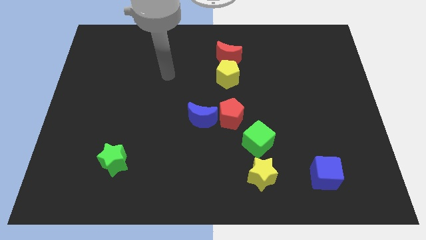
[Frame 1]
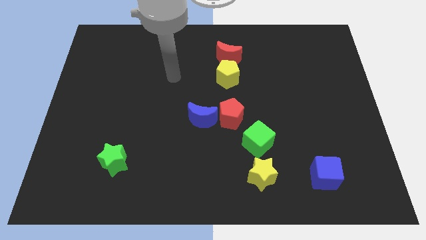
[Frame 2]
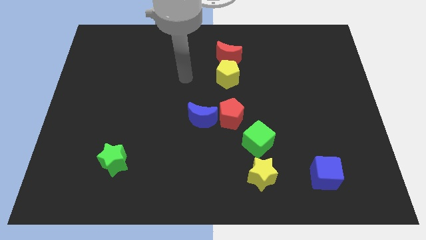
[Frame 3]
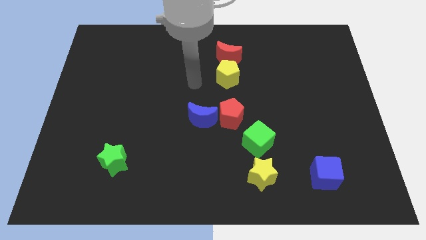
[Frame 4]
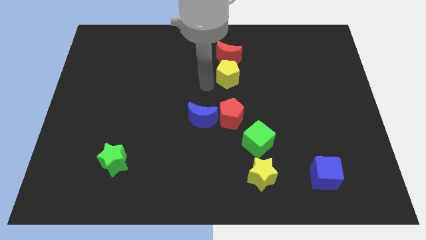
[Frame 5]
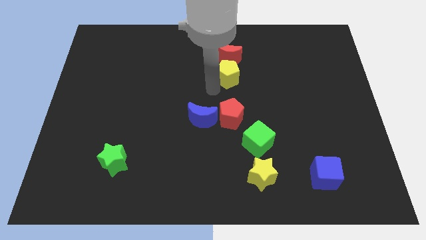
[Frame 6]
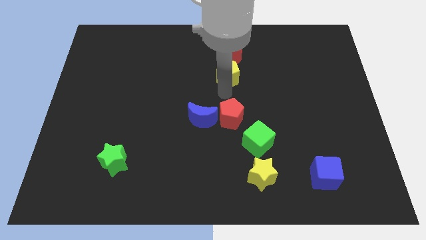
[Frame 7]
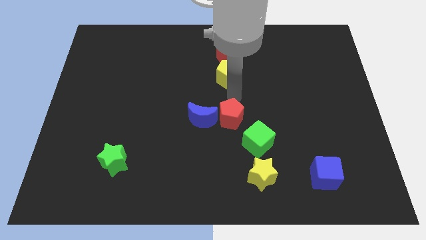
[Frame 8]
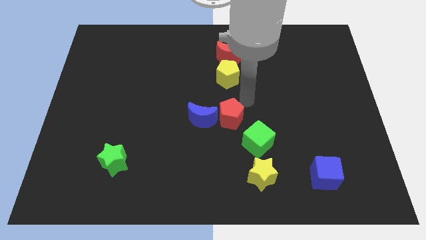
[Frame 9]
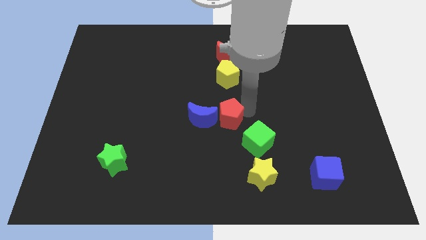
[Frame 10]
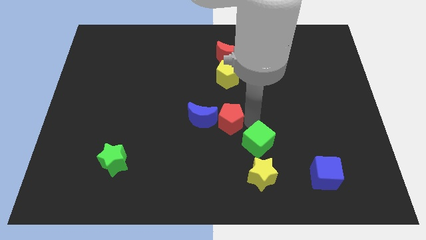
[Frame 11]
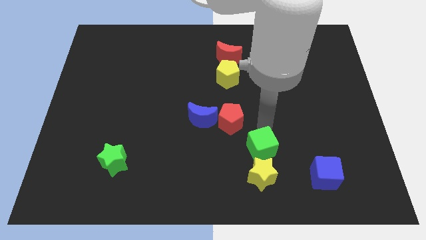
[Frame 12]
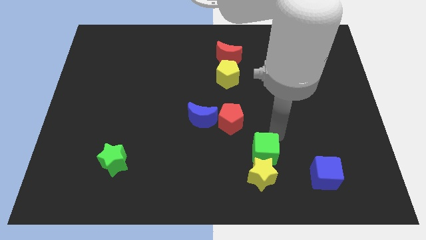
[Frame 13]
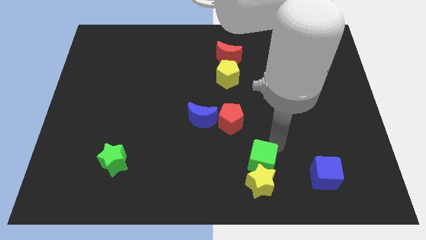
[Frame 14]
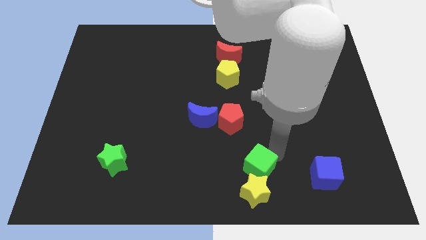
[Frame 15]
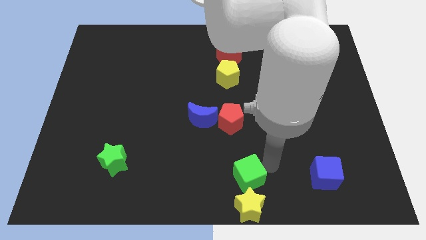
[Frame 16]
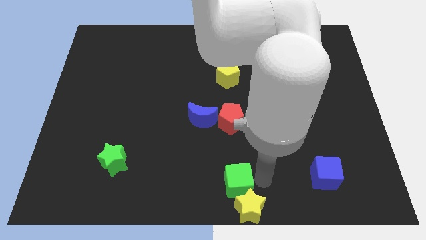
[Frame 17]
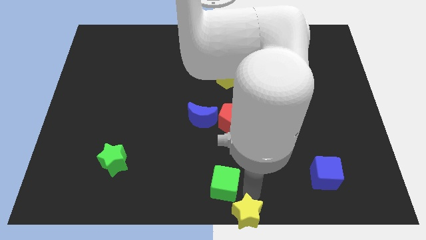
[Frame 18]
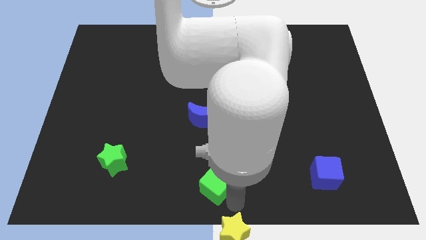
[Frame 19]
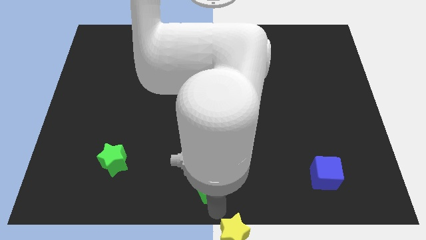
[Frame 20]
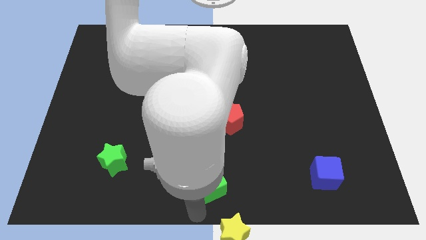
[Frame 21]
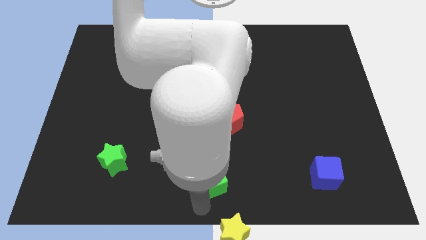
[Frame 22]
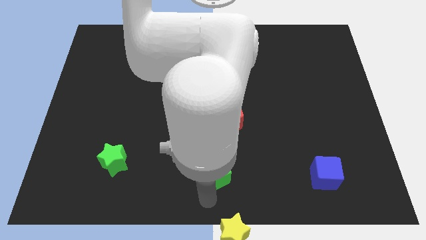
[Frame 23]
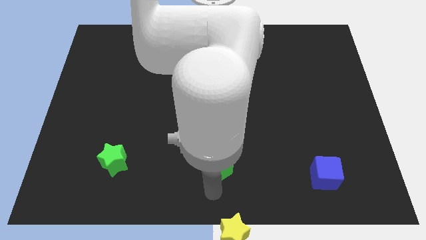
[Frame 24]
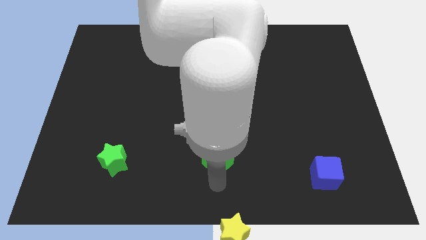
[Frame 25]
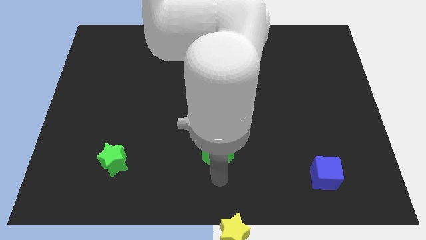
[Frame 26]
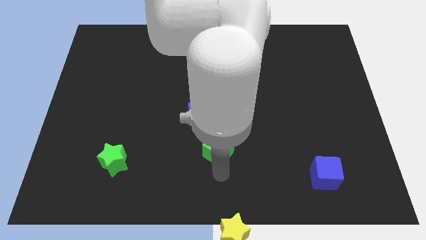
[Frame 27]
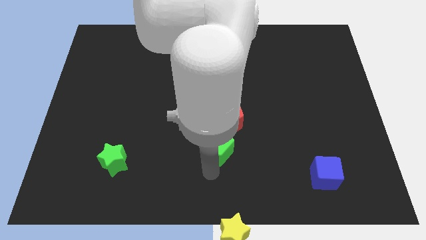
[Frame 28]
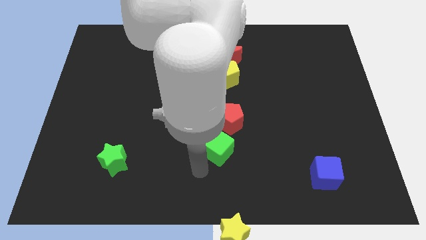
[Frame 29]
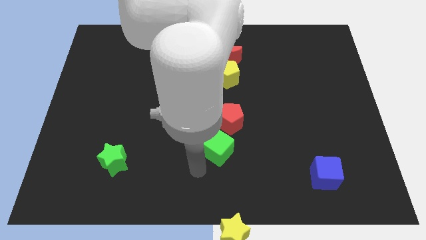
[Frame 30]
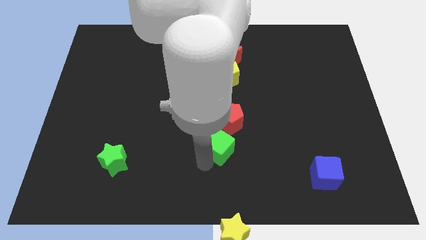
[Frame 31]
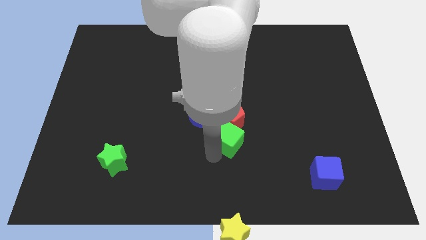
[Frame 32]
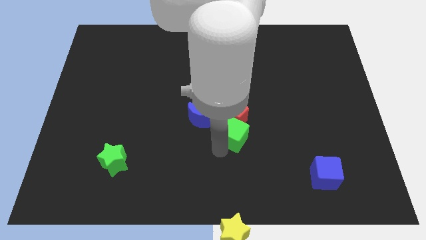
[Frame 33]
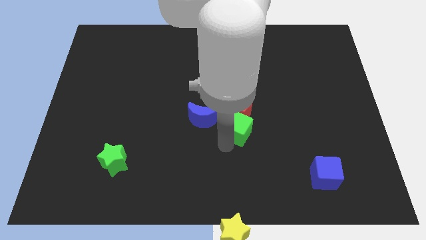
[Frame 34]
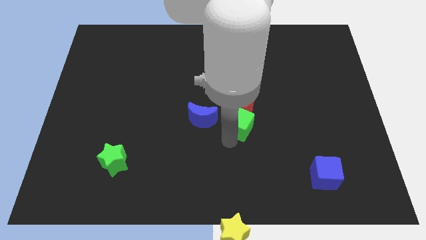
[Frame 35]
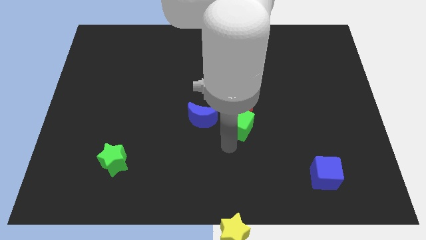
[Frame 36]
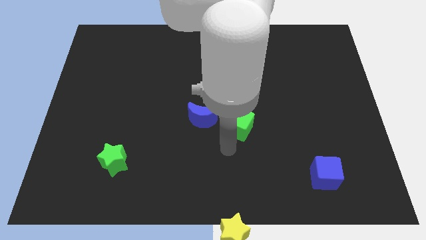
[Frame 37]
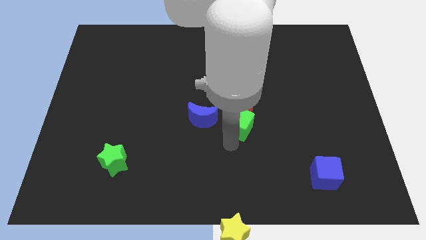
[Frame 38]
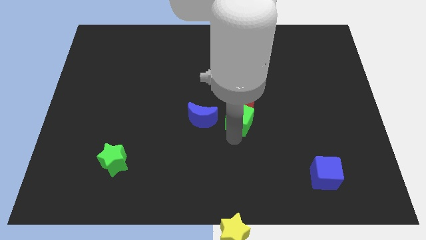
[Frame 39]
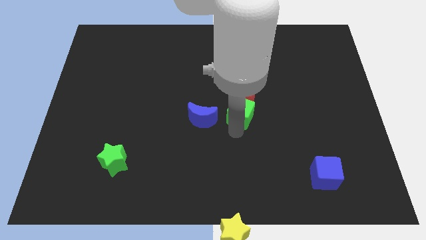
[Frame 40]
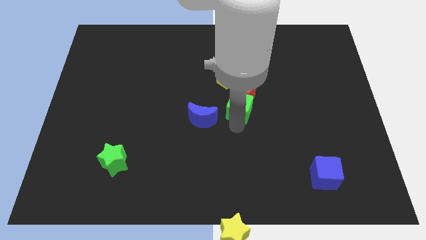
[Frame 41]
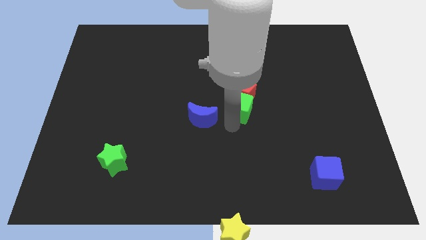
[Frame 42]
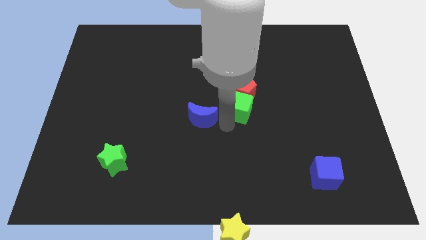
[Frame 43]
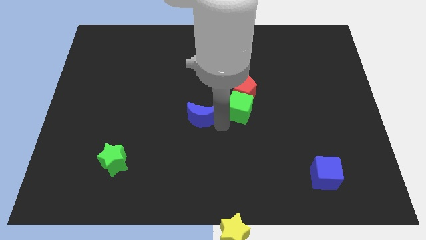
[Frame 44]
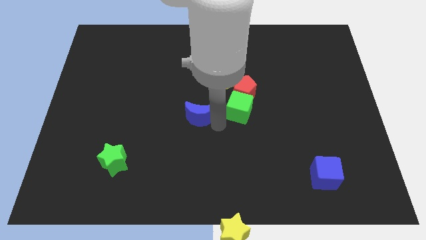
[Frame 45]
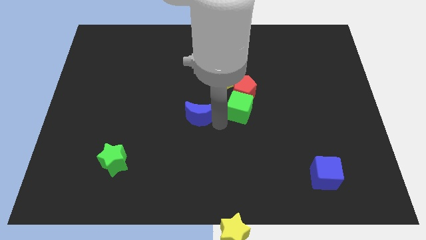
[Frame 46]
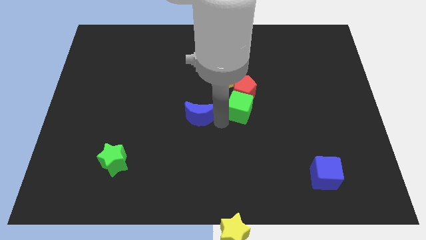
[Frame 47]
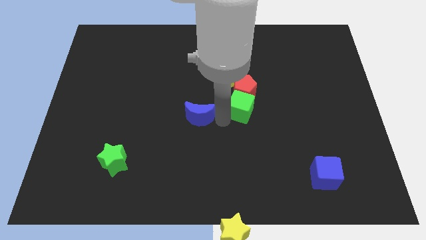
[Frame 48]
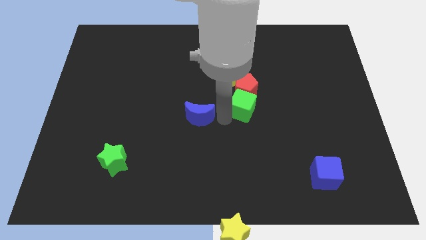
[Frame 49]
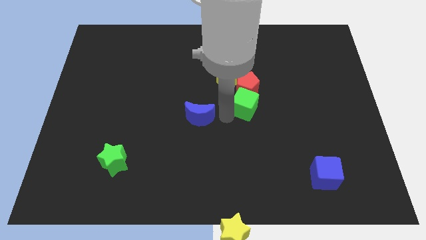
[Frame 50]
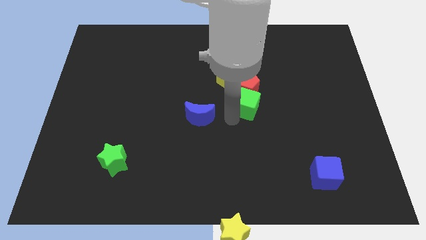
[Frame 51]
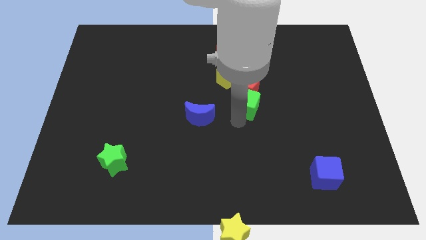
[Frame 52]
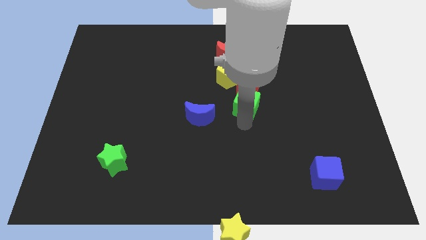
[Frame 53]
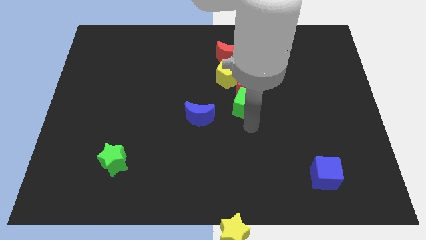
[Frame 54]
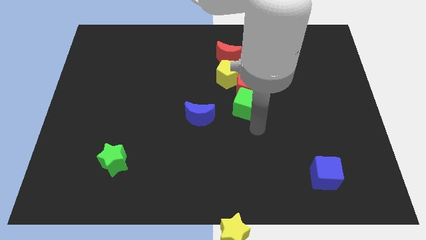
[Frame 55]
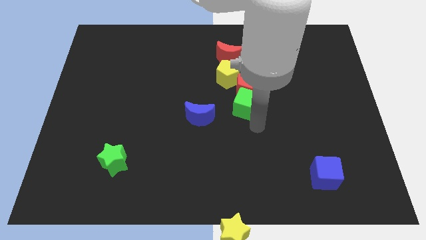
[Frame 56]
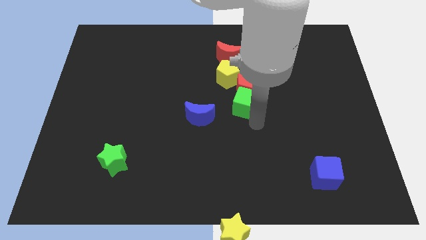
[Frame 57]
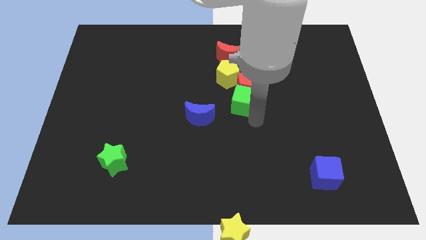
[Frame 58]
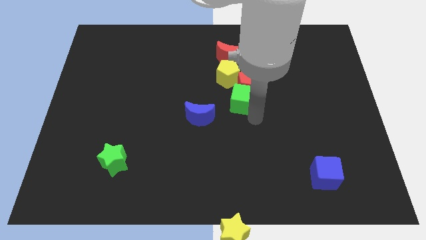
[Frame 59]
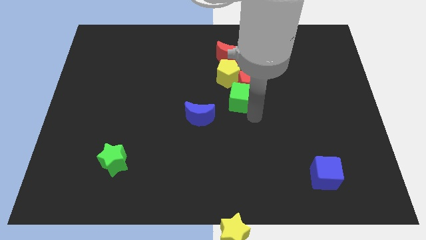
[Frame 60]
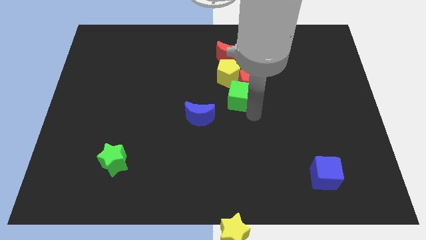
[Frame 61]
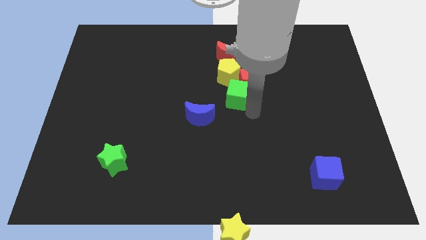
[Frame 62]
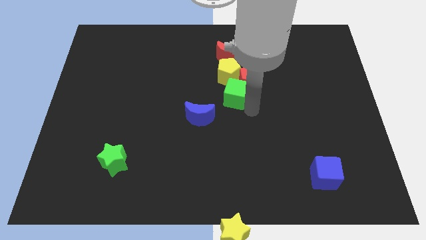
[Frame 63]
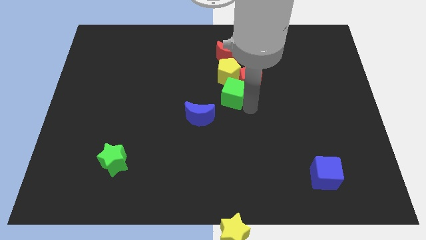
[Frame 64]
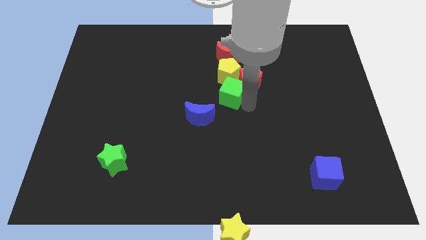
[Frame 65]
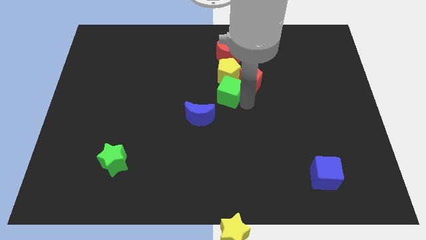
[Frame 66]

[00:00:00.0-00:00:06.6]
push the green cube to the yellow pentagon

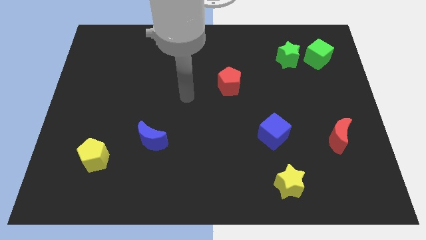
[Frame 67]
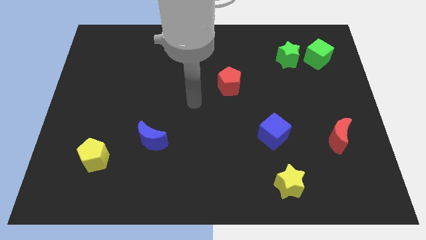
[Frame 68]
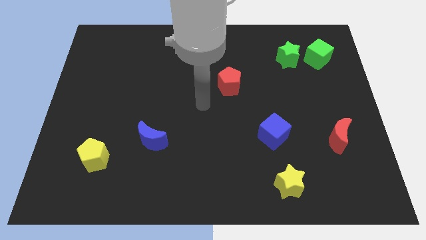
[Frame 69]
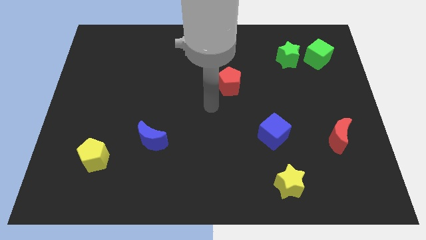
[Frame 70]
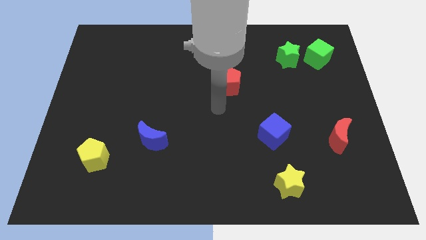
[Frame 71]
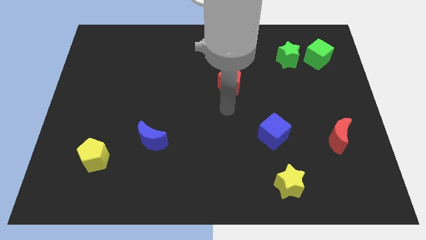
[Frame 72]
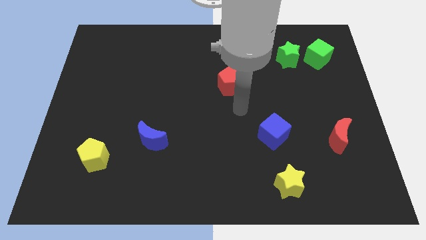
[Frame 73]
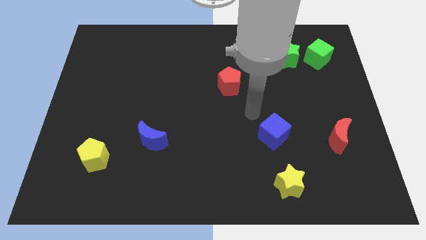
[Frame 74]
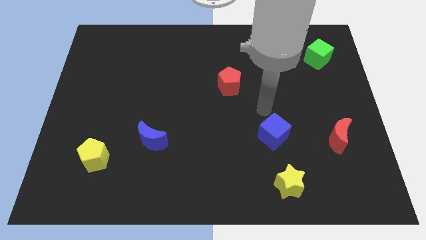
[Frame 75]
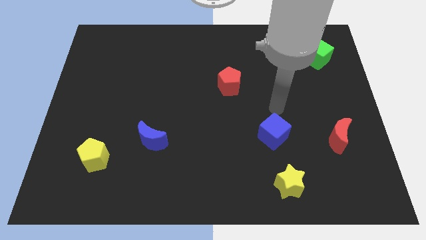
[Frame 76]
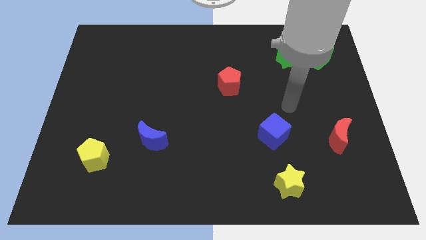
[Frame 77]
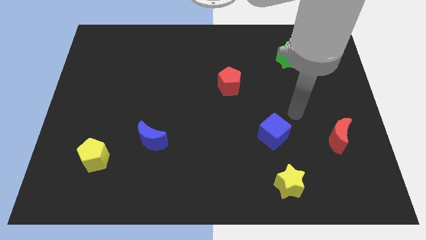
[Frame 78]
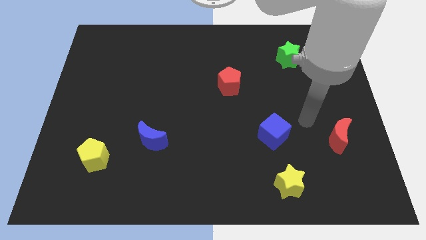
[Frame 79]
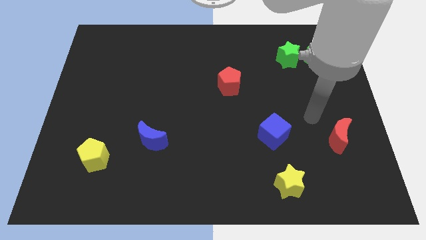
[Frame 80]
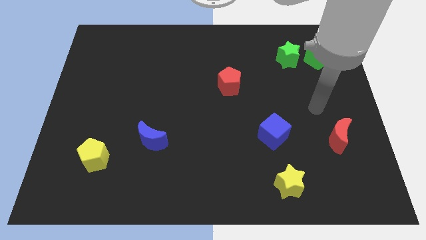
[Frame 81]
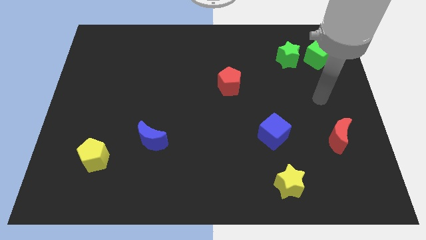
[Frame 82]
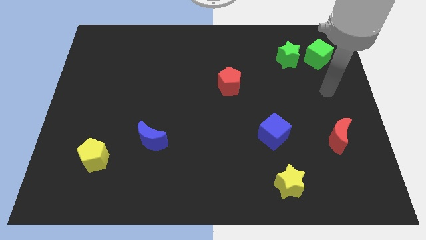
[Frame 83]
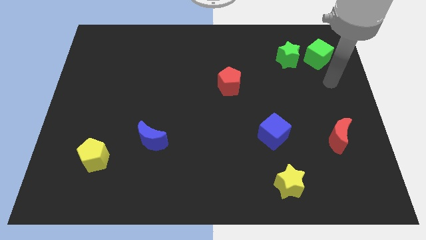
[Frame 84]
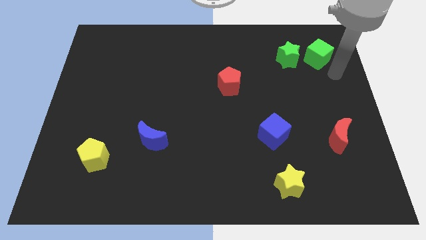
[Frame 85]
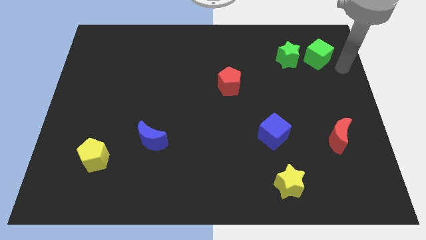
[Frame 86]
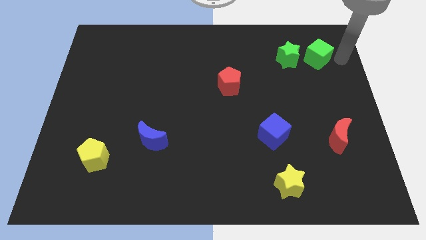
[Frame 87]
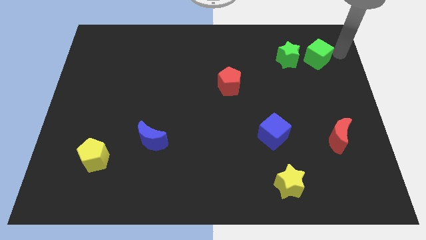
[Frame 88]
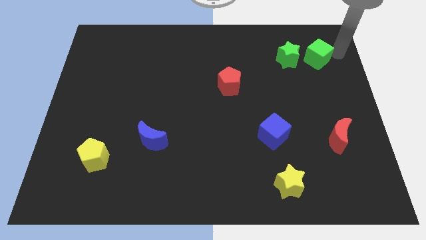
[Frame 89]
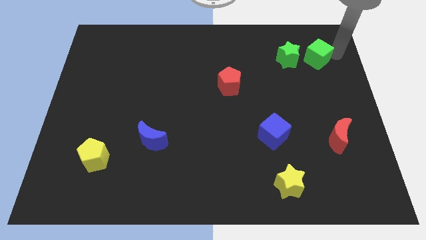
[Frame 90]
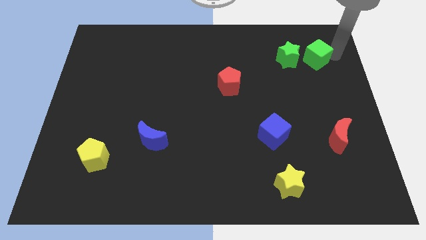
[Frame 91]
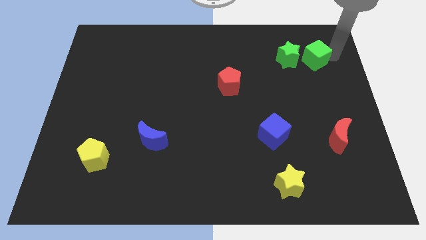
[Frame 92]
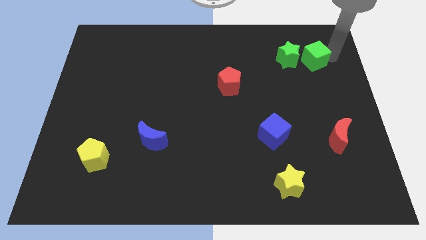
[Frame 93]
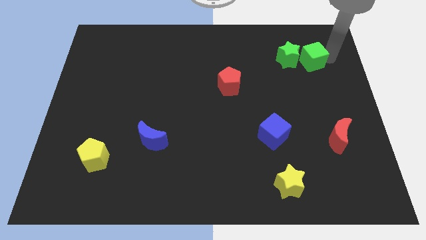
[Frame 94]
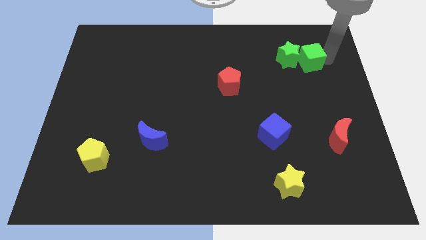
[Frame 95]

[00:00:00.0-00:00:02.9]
put the green cube close to the green star
